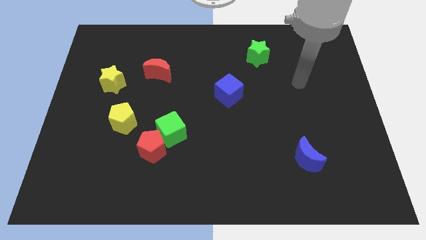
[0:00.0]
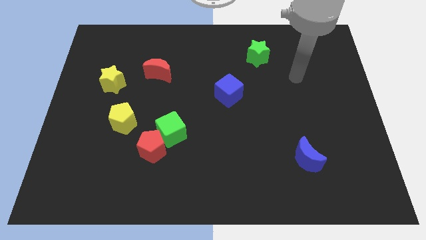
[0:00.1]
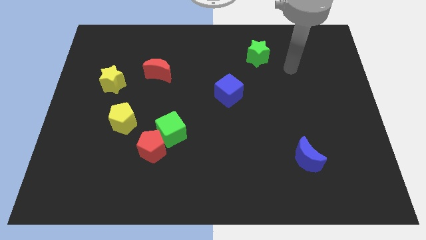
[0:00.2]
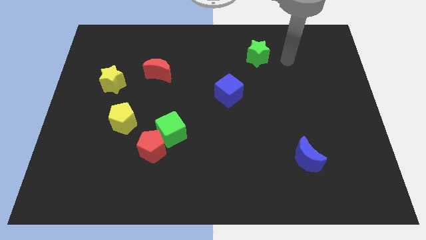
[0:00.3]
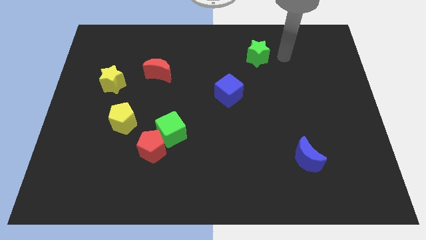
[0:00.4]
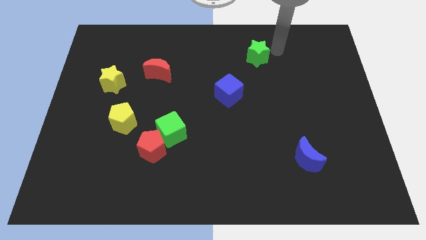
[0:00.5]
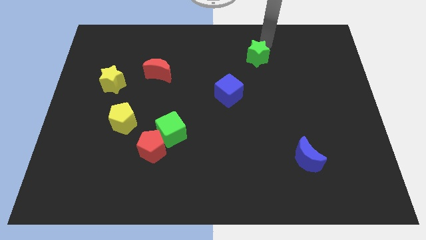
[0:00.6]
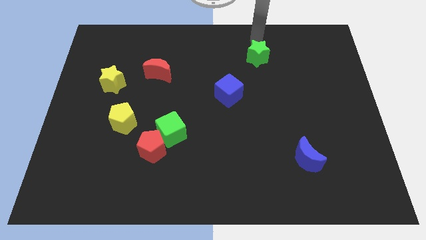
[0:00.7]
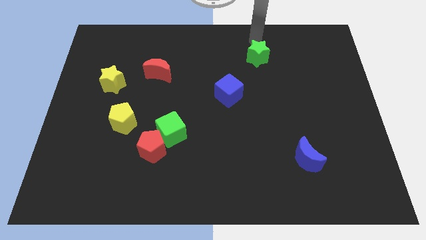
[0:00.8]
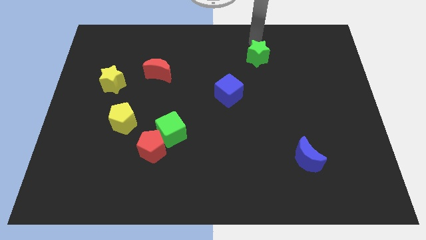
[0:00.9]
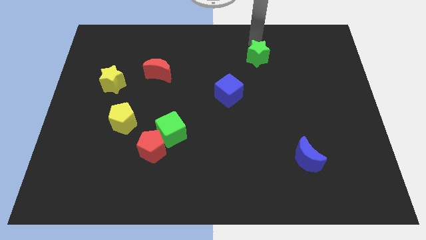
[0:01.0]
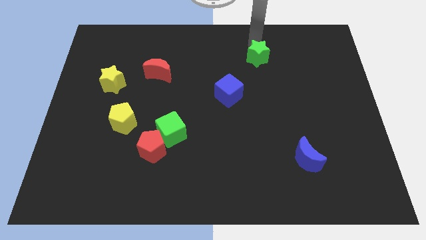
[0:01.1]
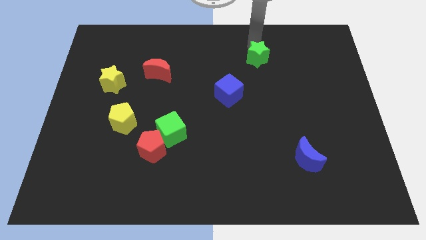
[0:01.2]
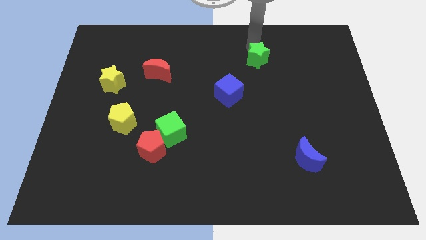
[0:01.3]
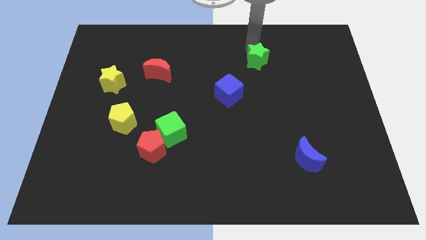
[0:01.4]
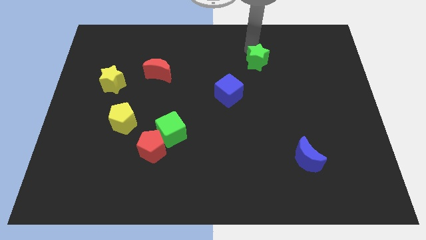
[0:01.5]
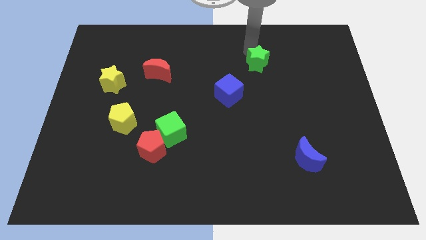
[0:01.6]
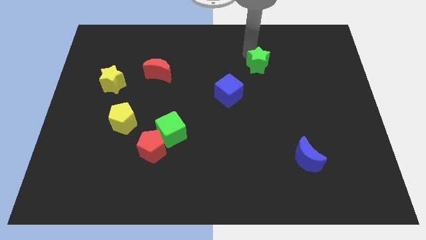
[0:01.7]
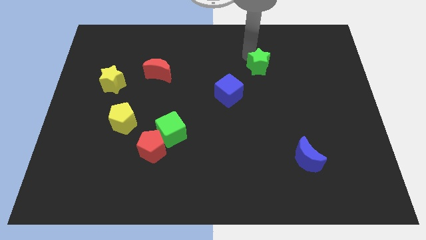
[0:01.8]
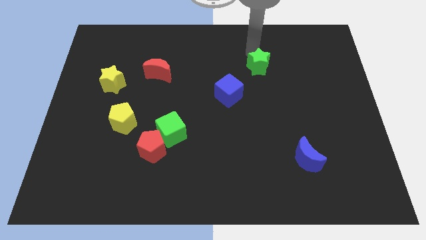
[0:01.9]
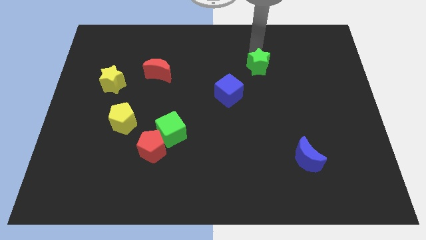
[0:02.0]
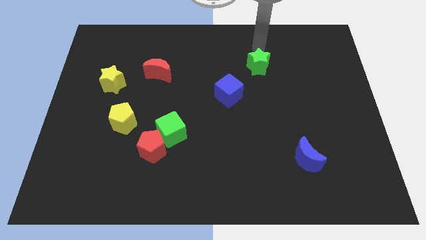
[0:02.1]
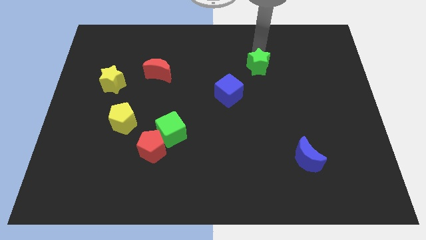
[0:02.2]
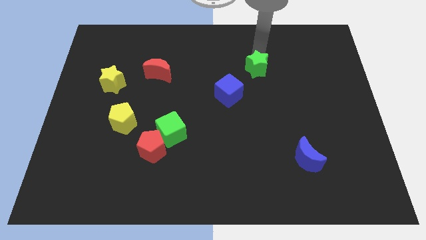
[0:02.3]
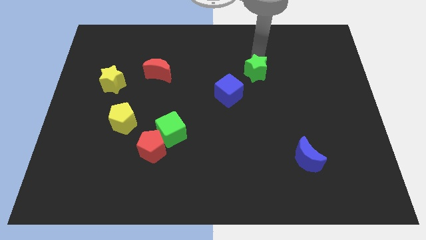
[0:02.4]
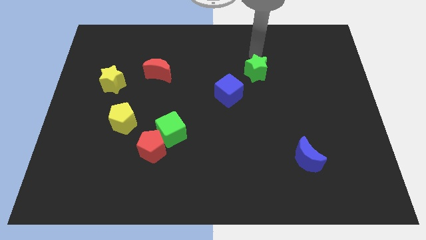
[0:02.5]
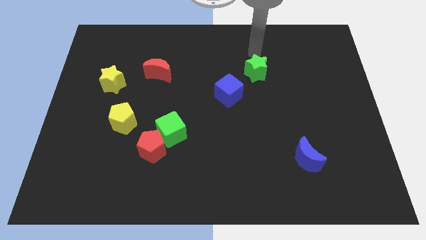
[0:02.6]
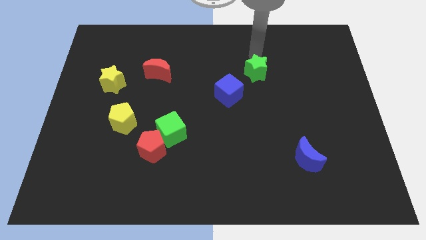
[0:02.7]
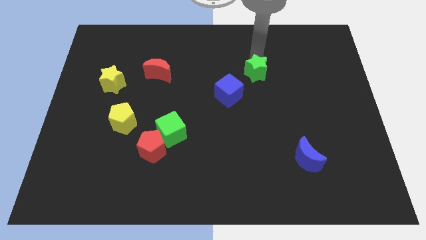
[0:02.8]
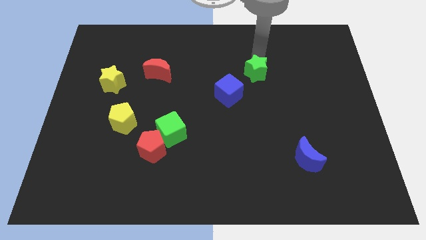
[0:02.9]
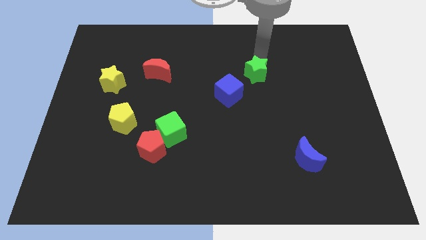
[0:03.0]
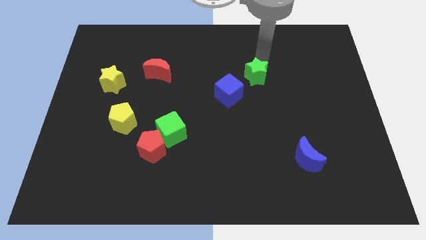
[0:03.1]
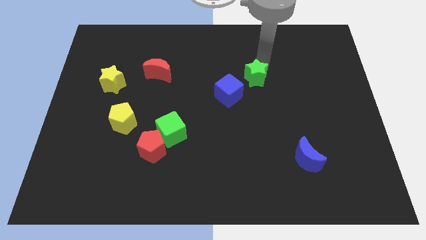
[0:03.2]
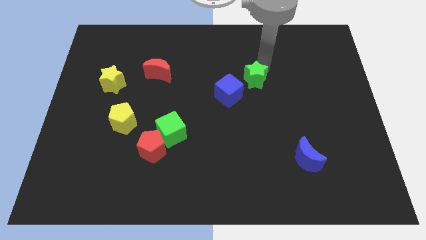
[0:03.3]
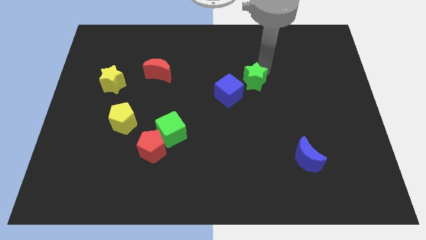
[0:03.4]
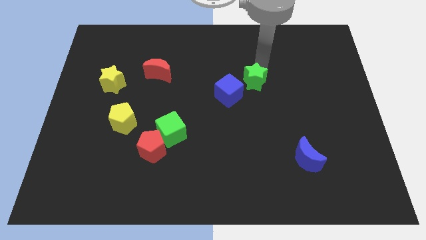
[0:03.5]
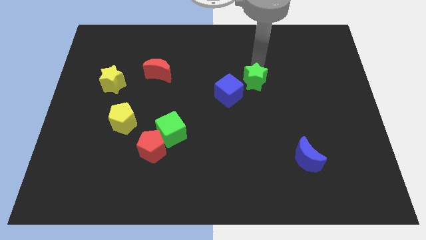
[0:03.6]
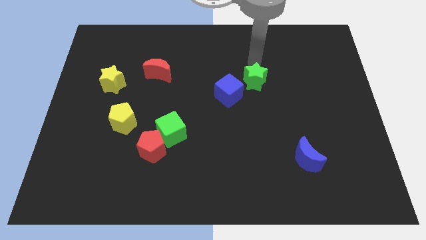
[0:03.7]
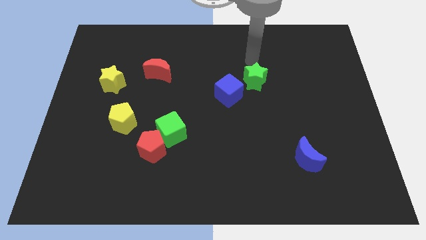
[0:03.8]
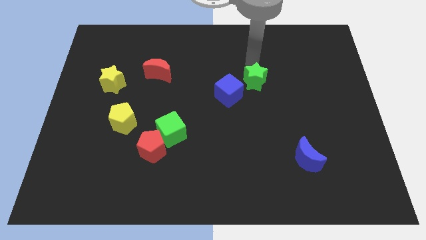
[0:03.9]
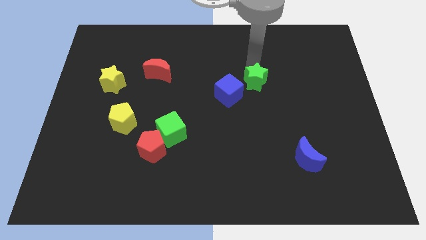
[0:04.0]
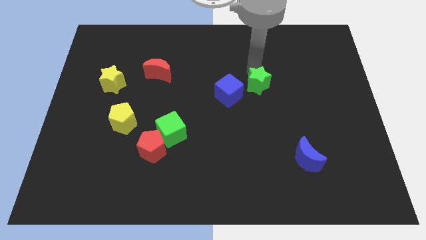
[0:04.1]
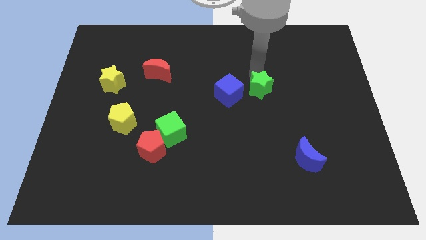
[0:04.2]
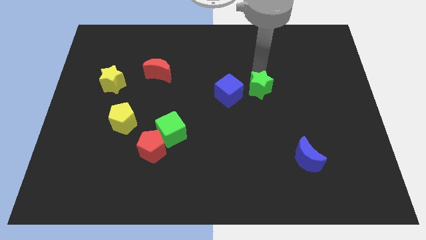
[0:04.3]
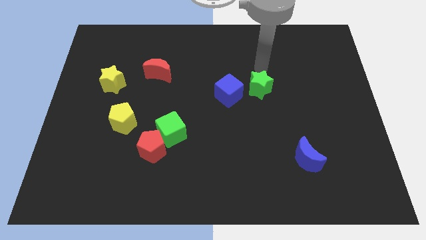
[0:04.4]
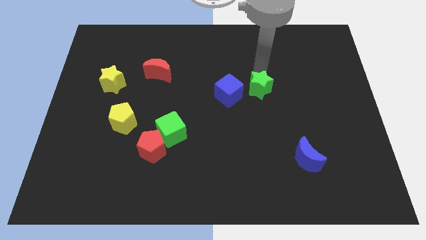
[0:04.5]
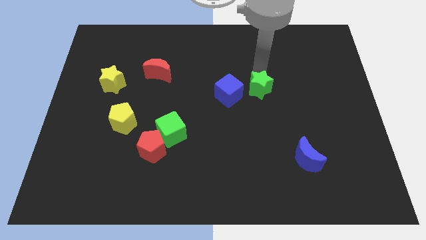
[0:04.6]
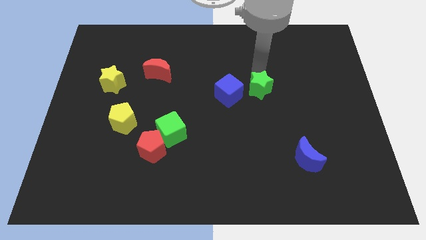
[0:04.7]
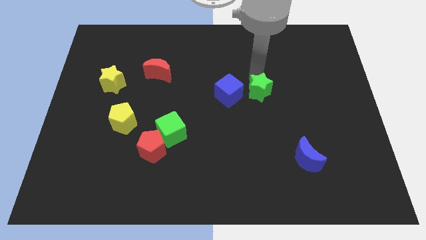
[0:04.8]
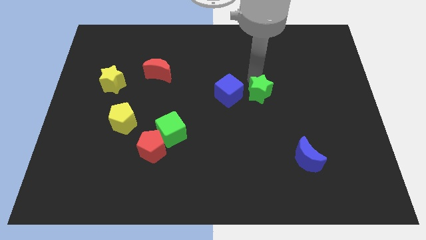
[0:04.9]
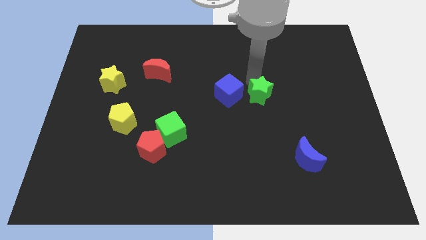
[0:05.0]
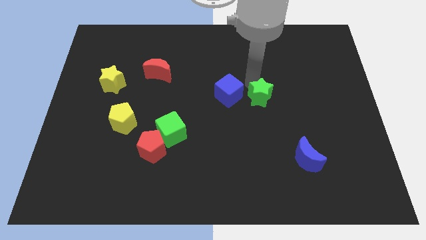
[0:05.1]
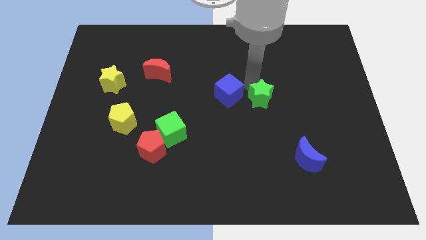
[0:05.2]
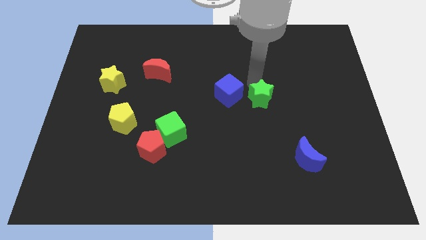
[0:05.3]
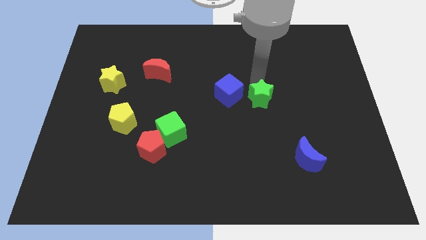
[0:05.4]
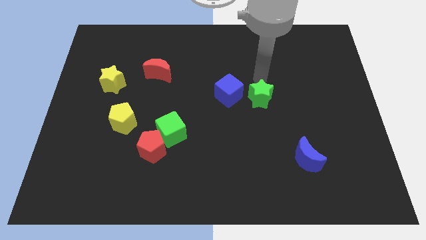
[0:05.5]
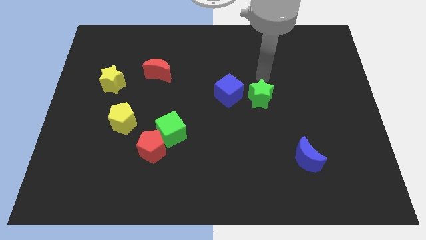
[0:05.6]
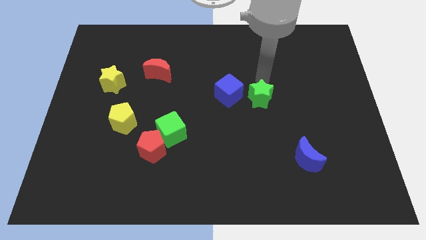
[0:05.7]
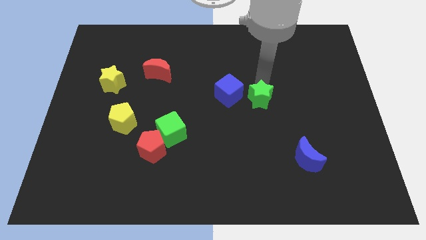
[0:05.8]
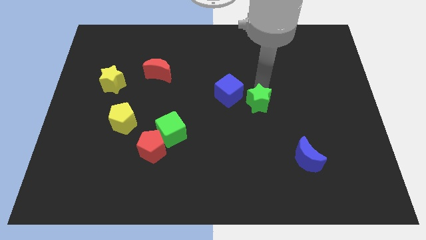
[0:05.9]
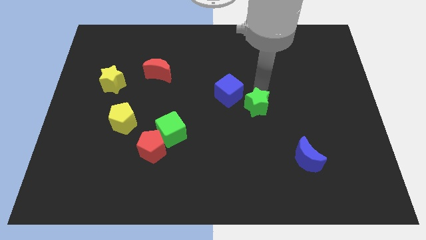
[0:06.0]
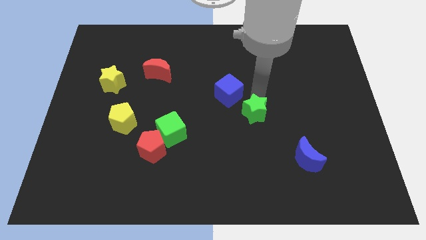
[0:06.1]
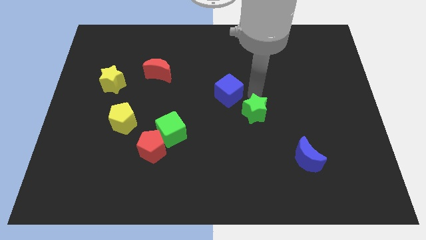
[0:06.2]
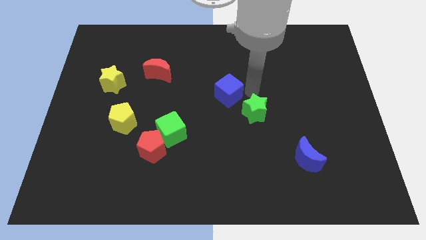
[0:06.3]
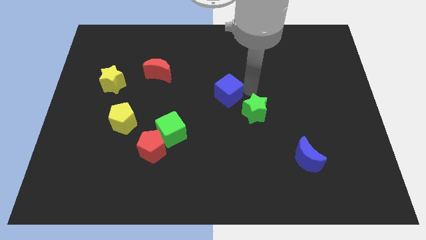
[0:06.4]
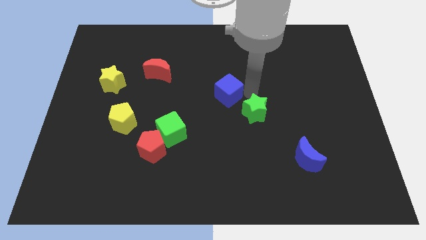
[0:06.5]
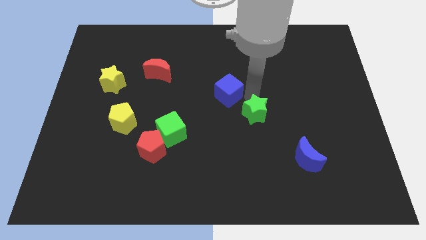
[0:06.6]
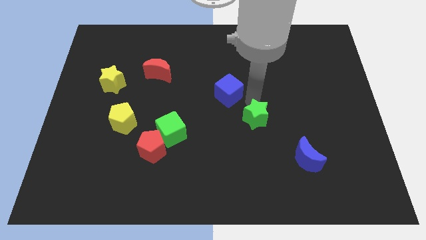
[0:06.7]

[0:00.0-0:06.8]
move the green star downwards

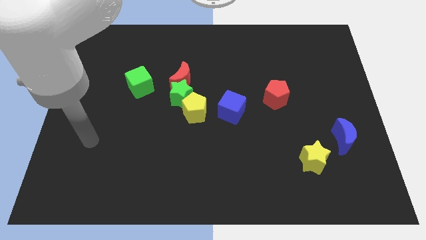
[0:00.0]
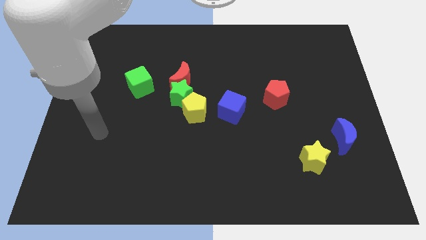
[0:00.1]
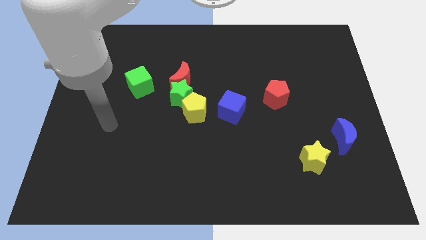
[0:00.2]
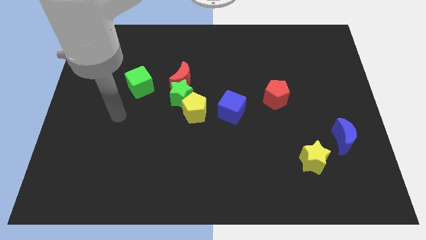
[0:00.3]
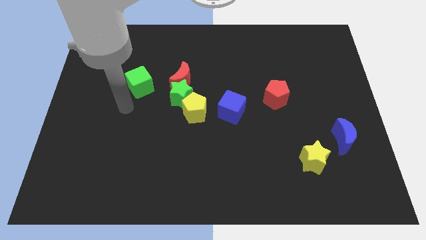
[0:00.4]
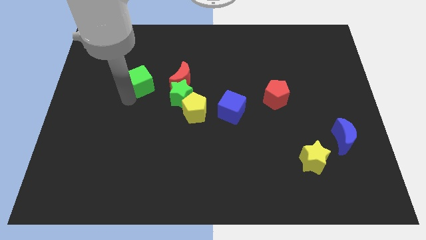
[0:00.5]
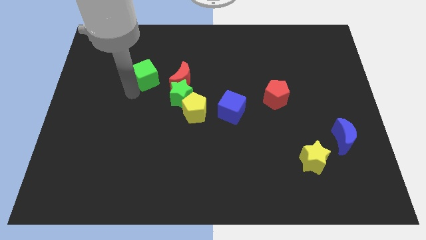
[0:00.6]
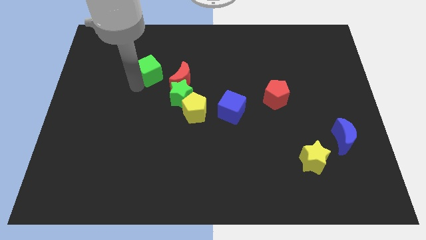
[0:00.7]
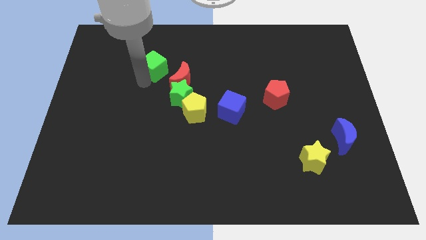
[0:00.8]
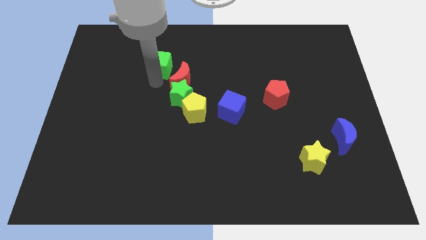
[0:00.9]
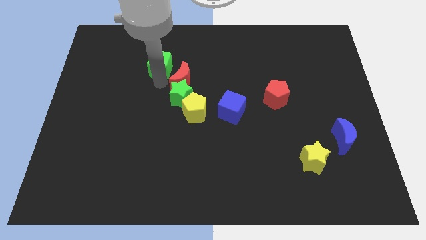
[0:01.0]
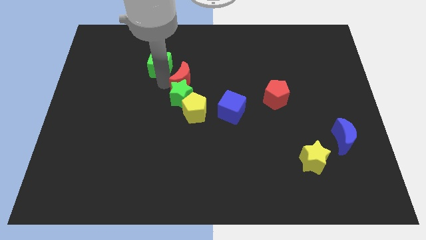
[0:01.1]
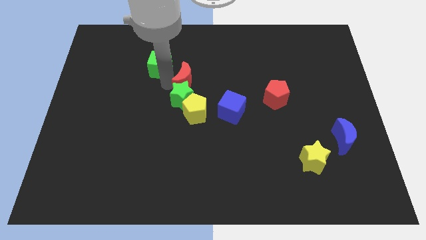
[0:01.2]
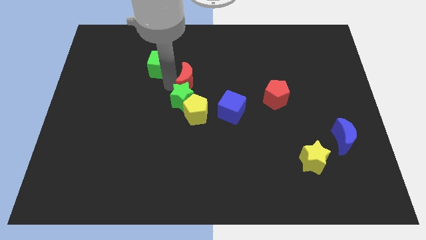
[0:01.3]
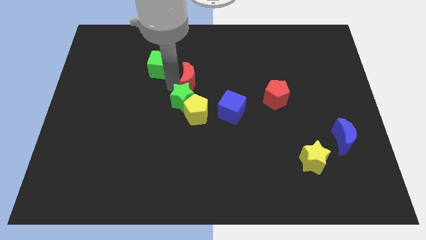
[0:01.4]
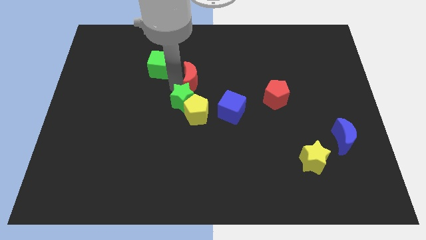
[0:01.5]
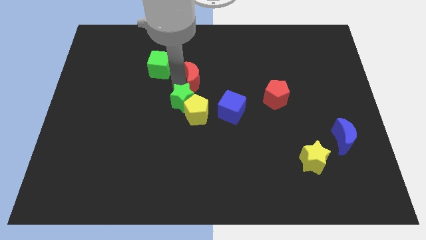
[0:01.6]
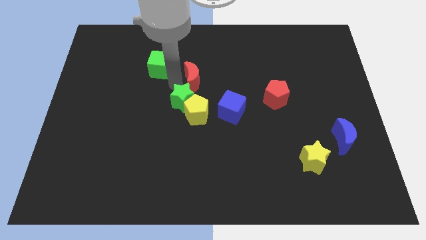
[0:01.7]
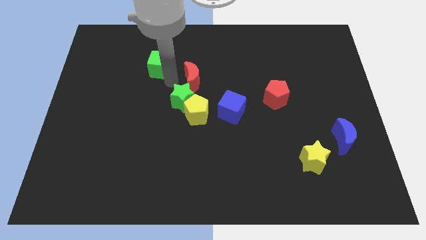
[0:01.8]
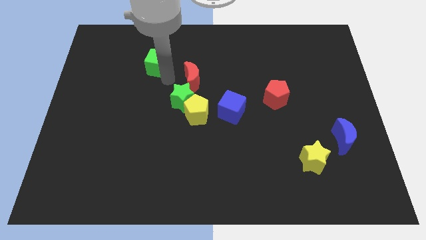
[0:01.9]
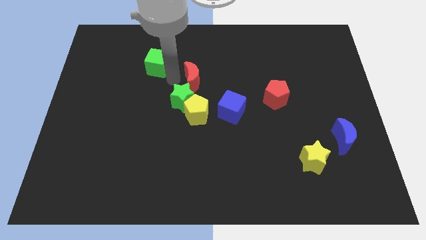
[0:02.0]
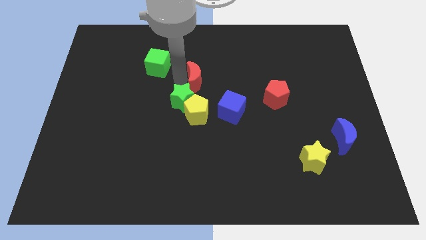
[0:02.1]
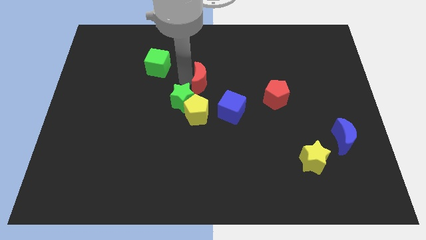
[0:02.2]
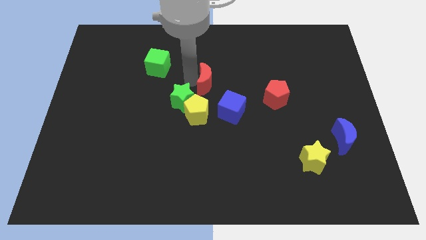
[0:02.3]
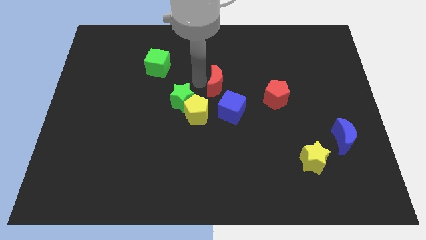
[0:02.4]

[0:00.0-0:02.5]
push the red moon somewhat right
